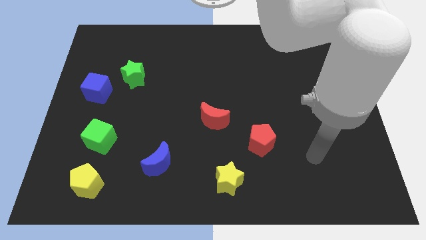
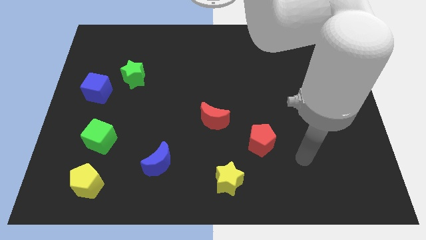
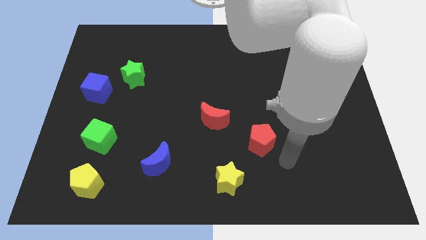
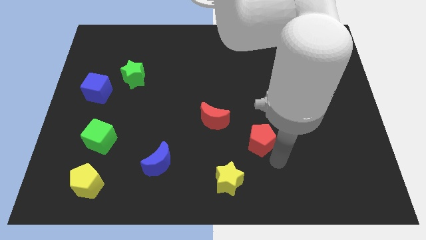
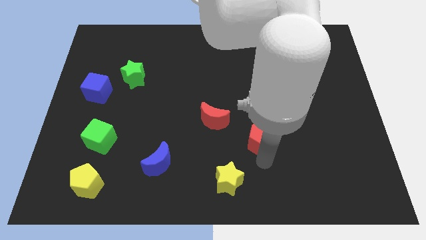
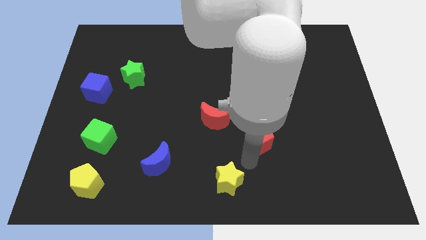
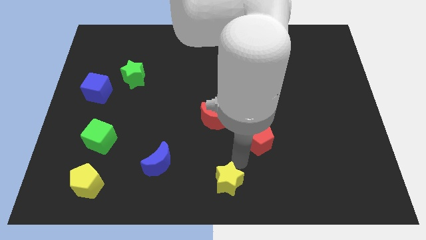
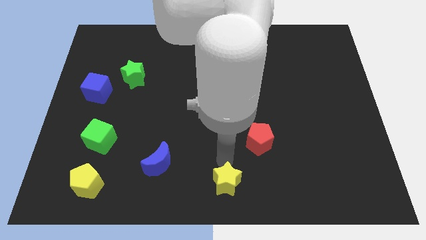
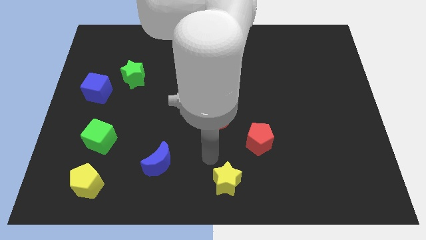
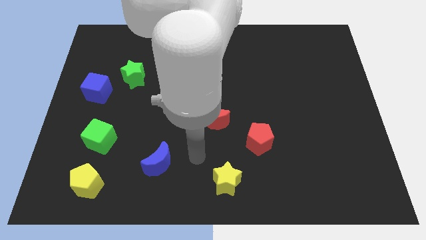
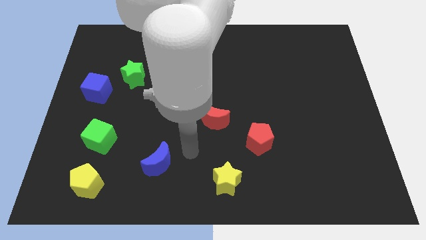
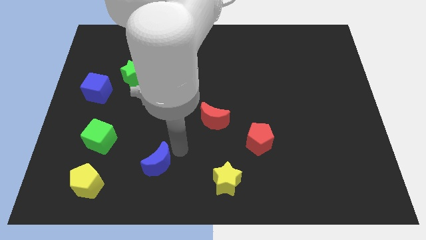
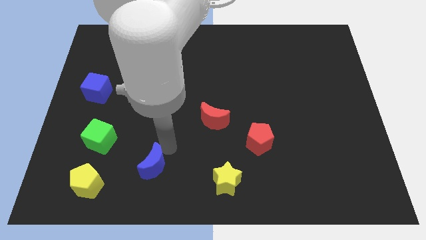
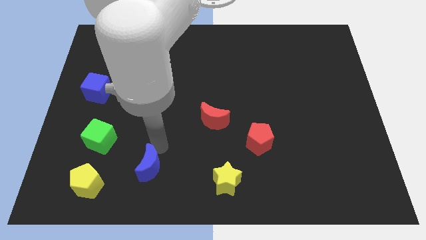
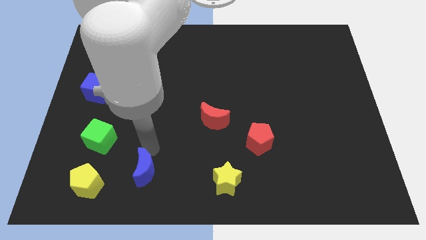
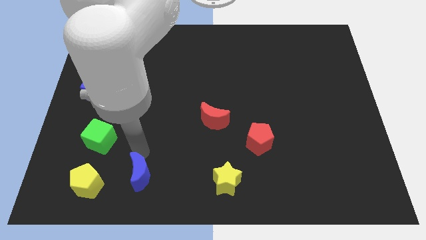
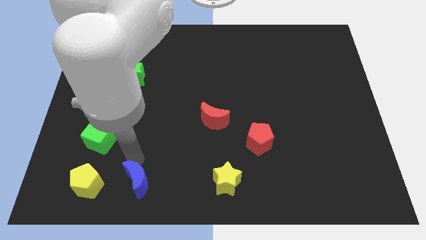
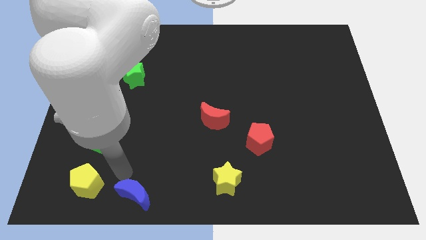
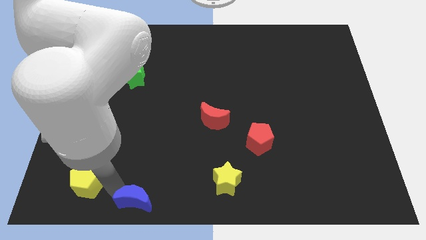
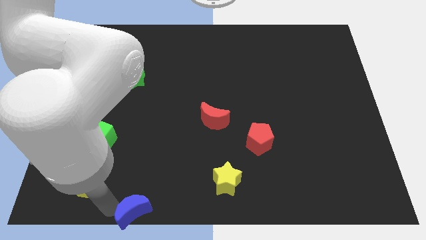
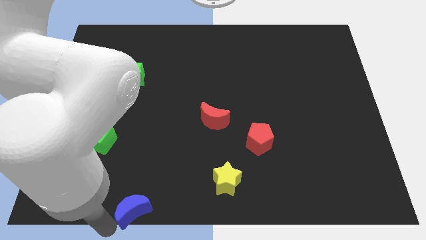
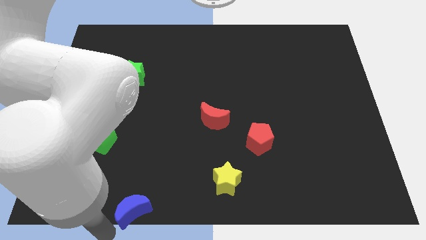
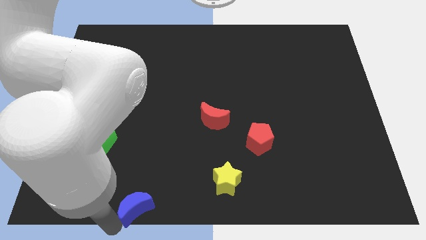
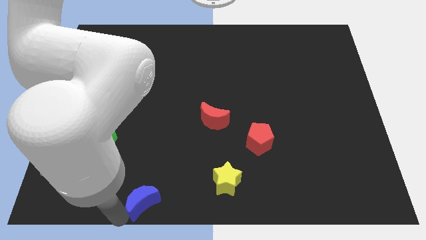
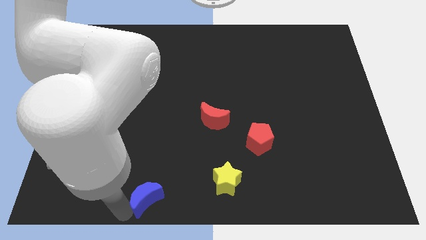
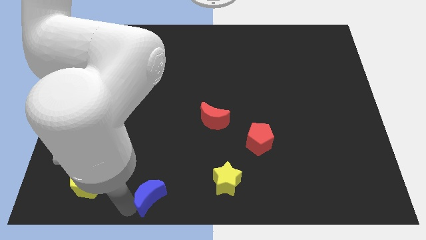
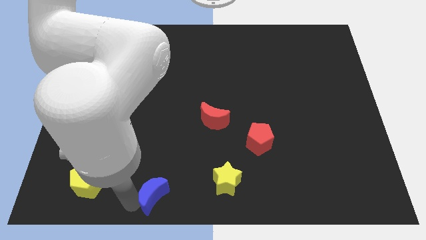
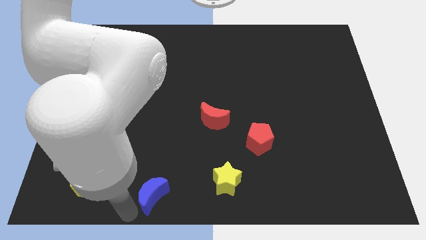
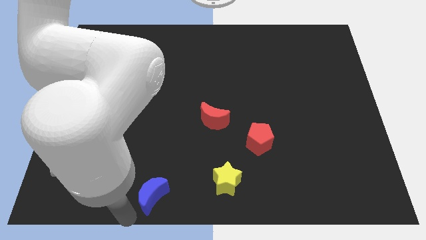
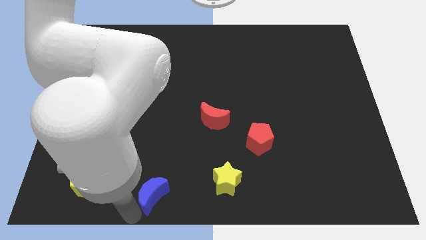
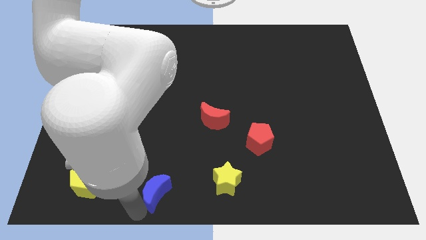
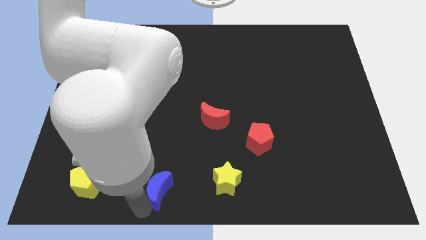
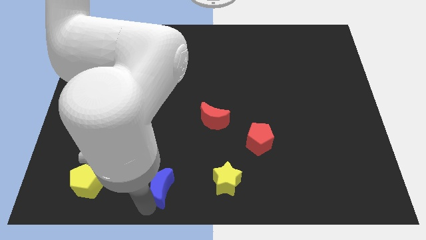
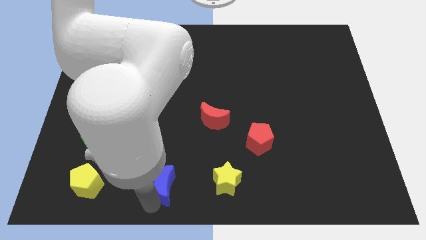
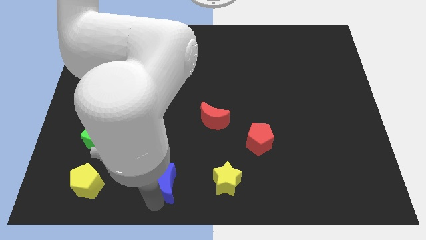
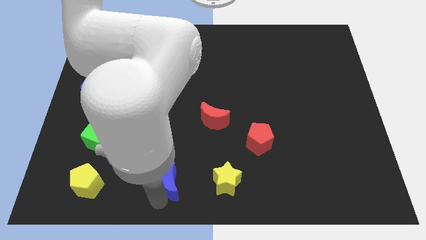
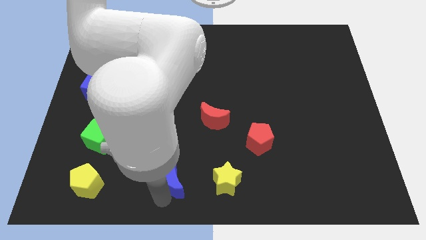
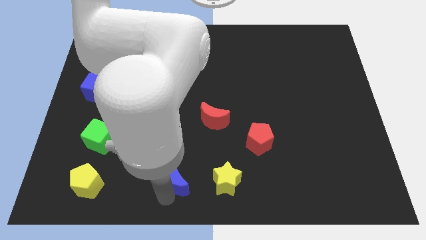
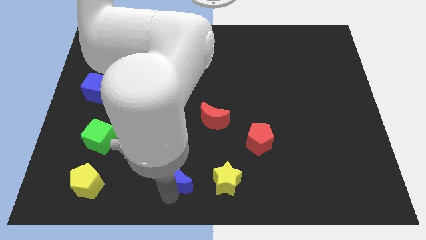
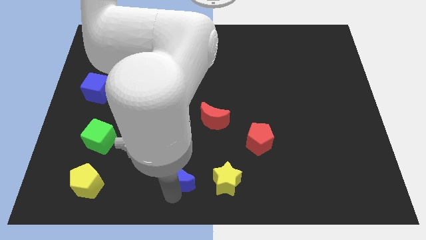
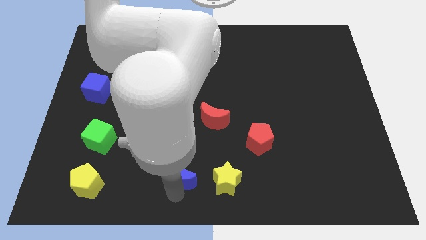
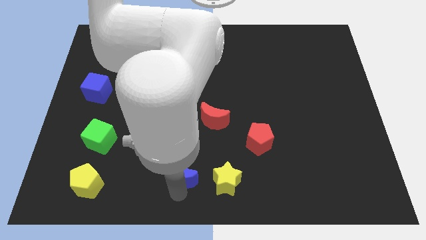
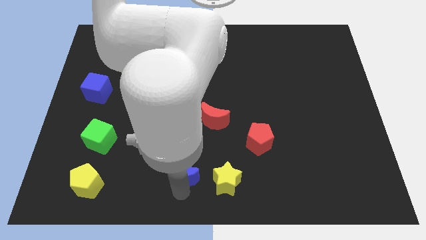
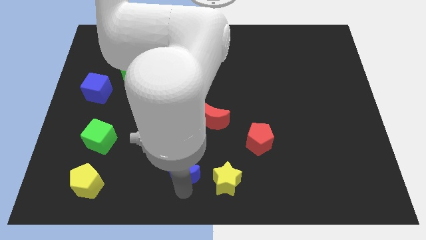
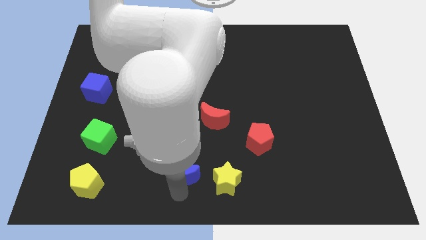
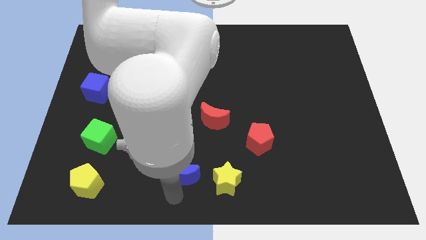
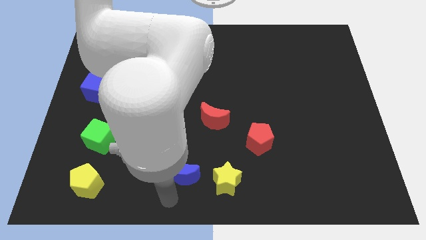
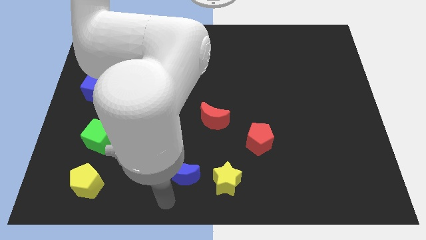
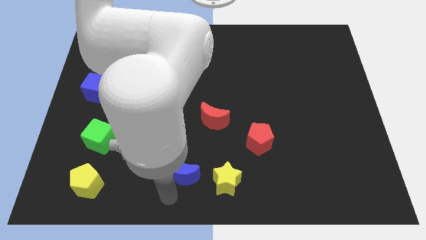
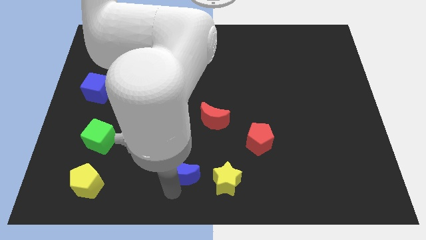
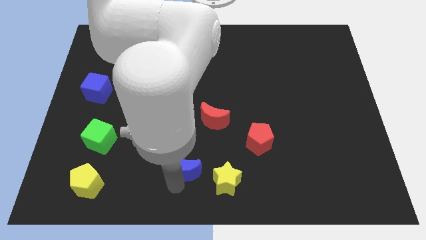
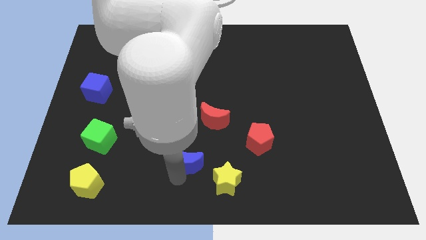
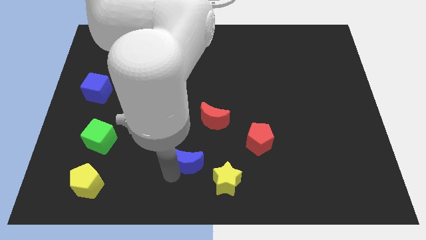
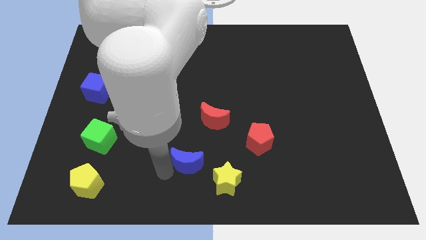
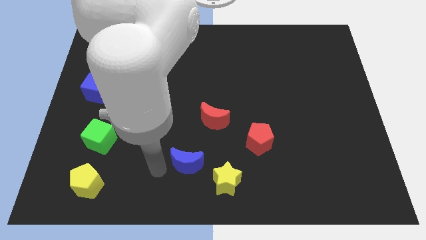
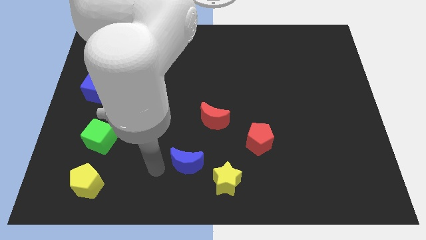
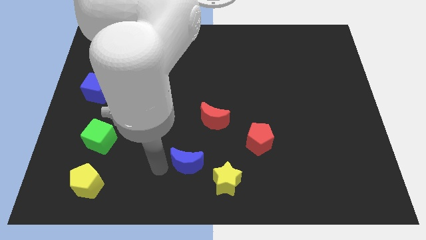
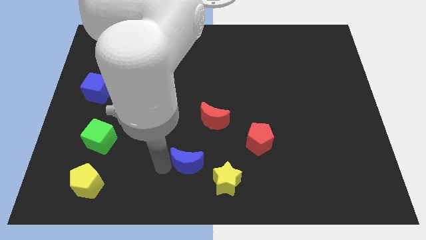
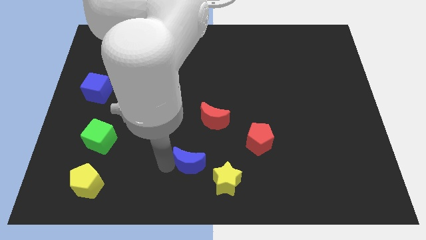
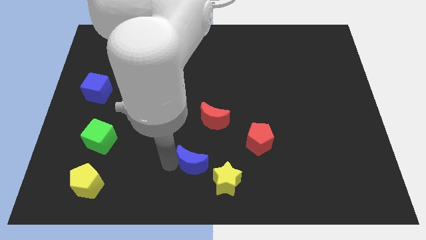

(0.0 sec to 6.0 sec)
push the blue moon below the red moon

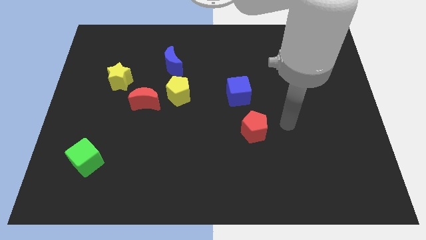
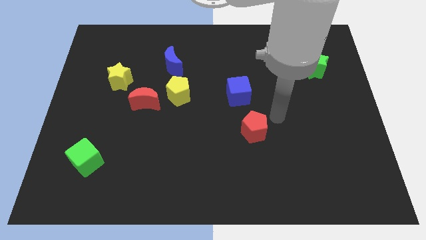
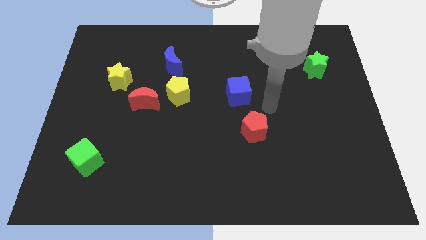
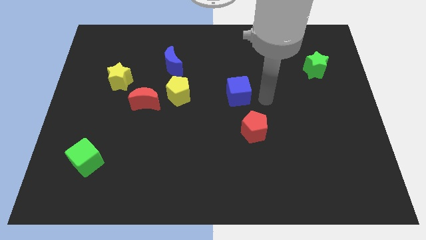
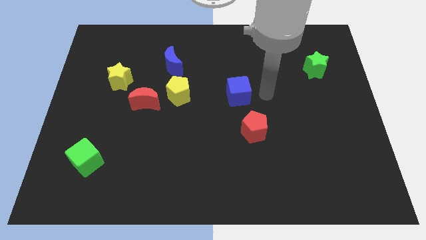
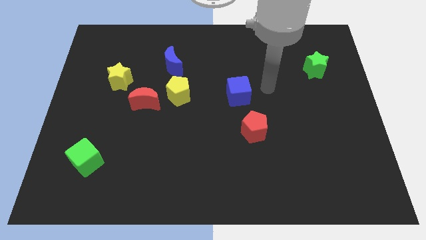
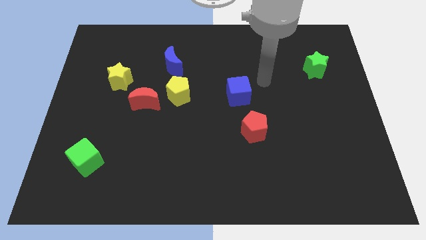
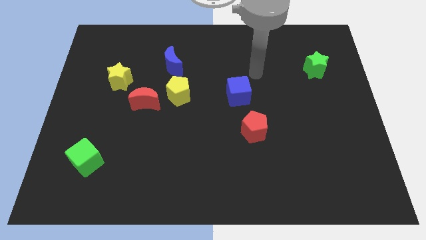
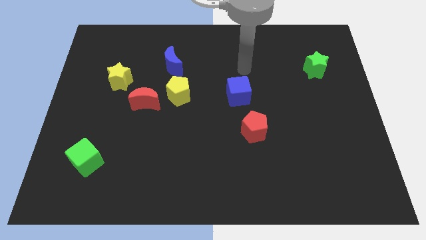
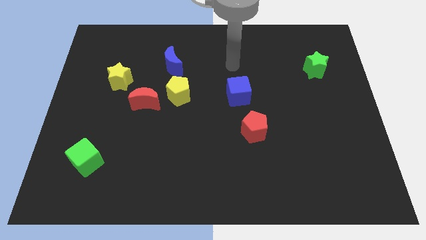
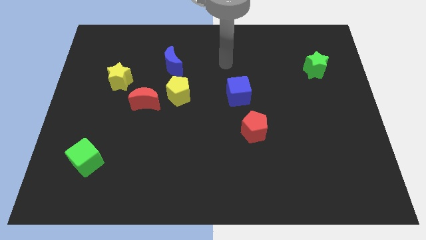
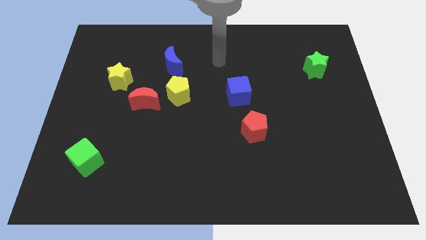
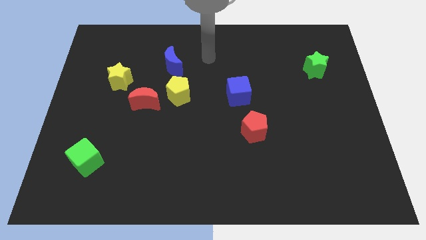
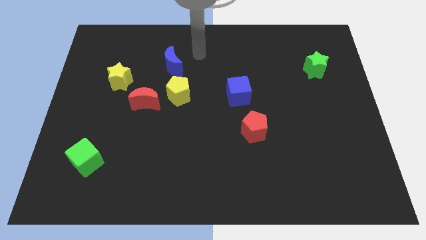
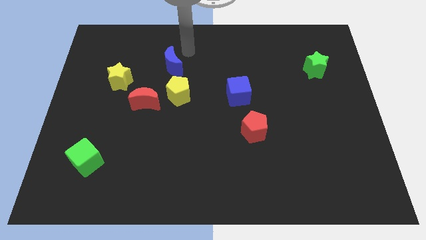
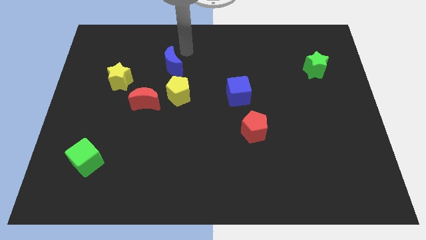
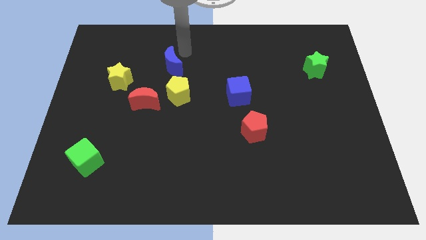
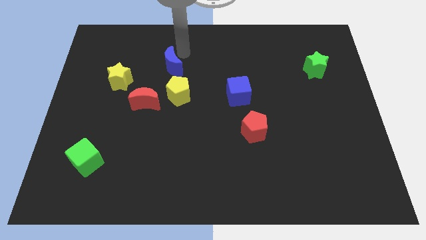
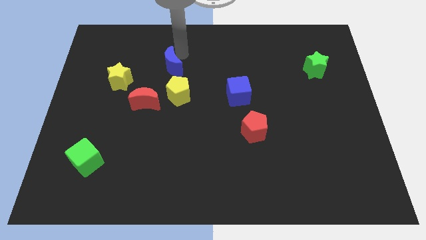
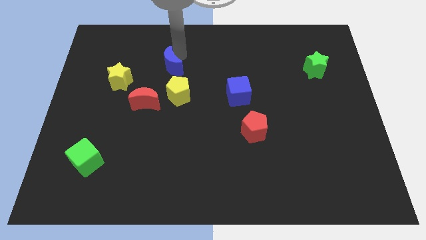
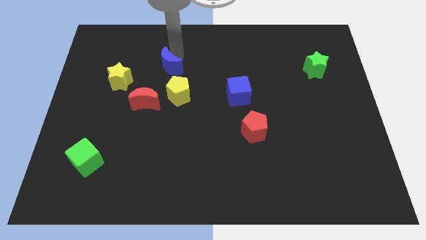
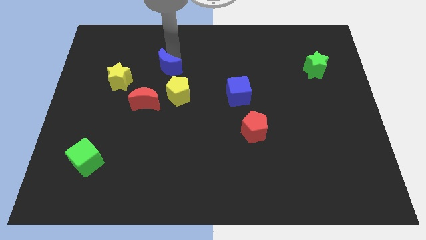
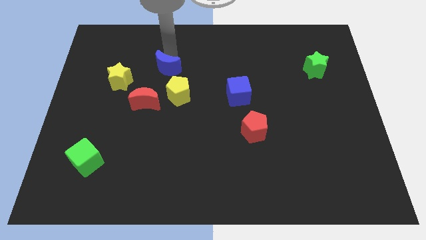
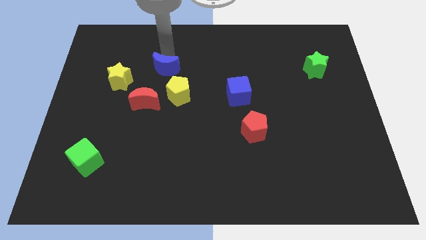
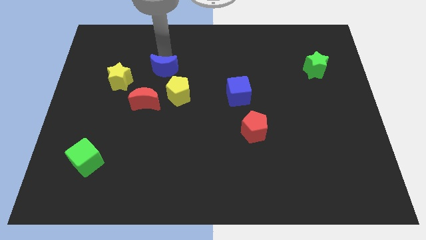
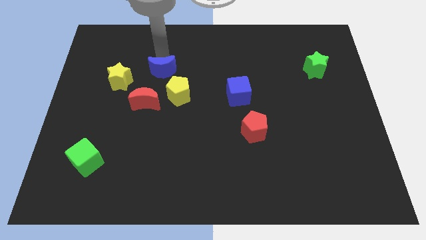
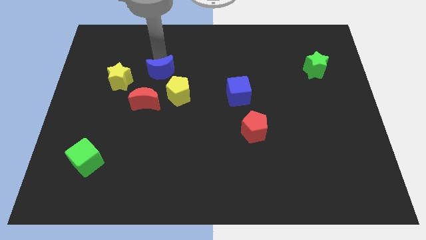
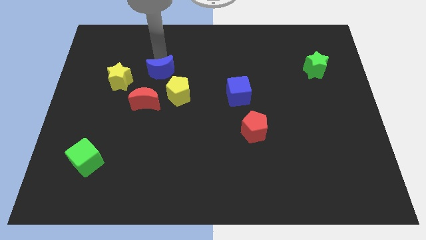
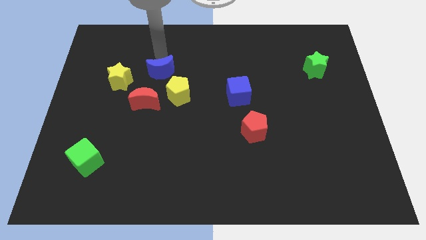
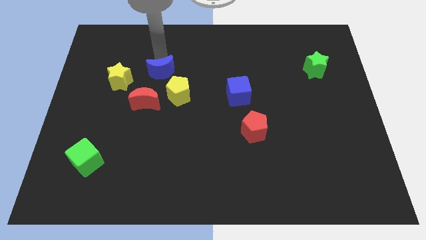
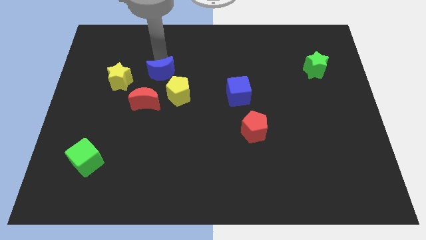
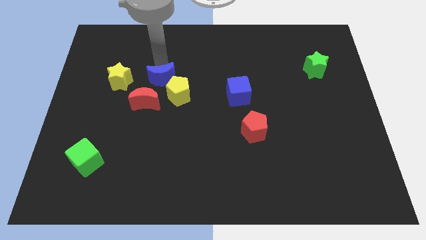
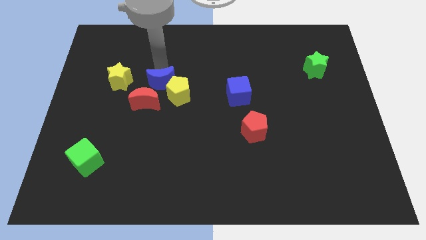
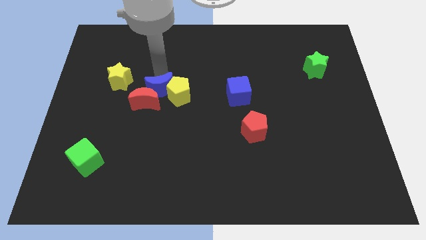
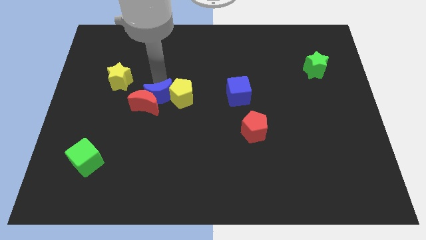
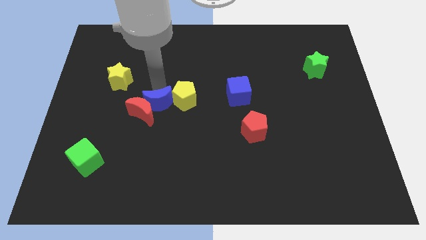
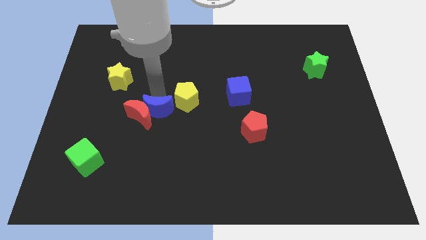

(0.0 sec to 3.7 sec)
move the blue moon to the bottom right of the red moon
